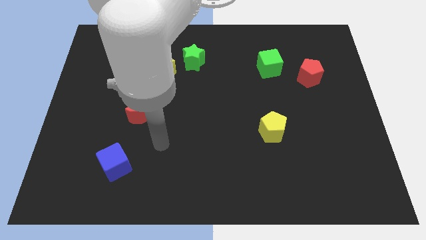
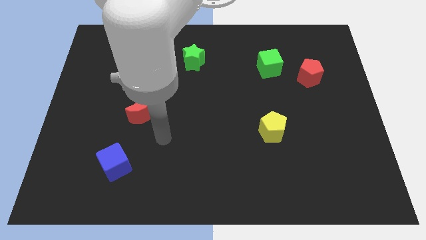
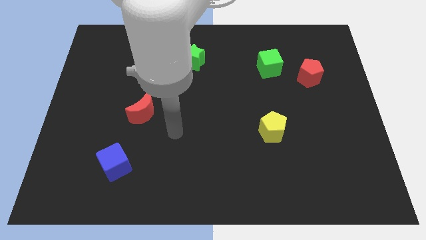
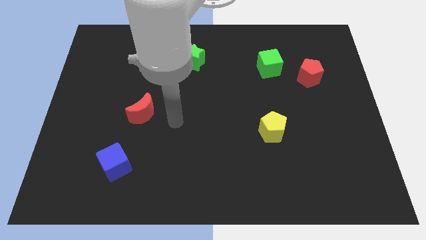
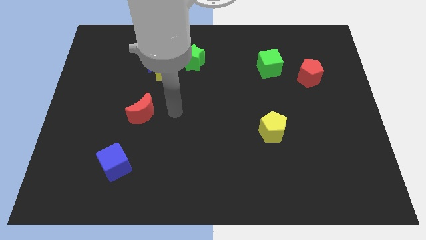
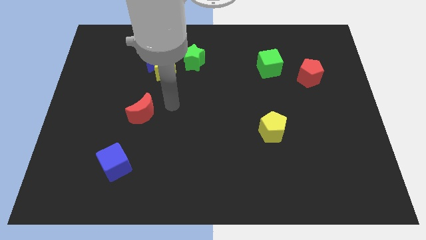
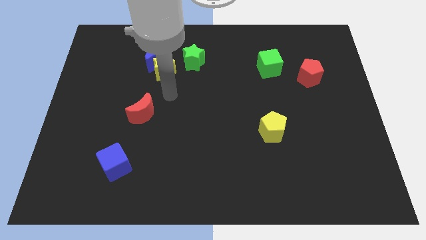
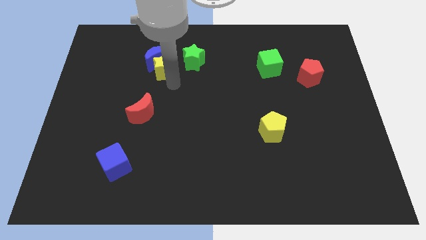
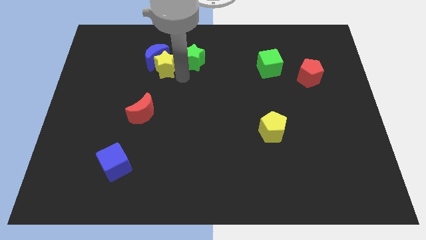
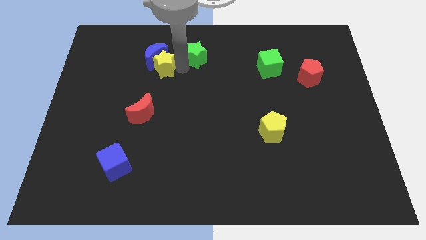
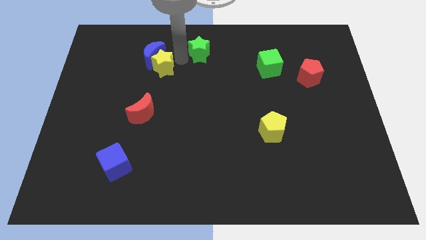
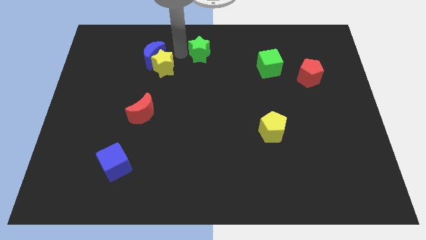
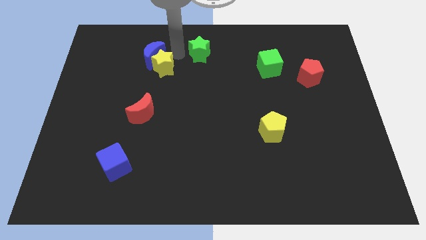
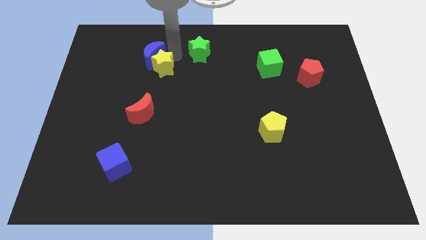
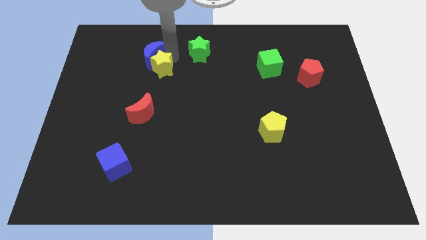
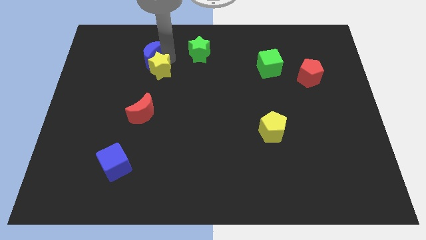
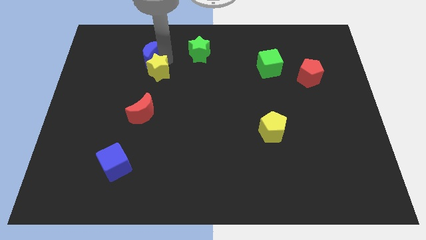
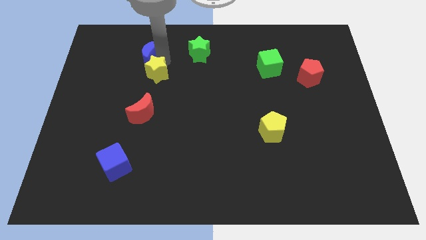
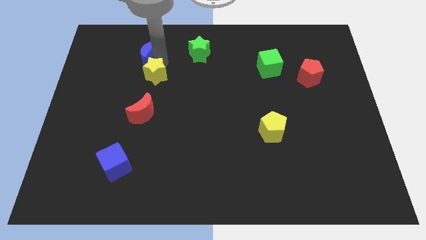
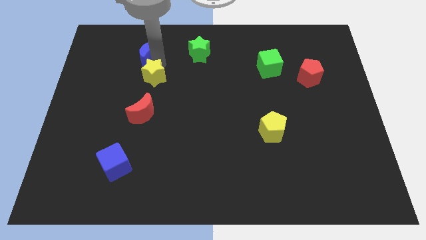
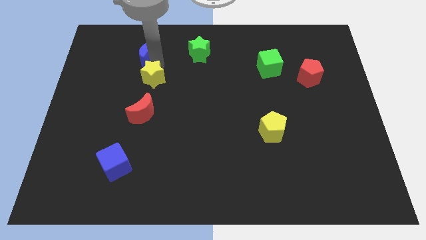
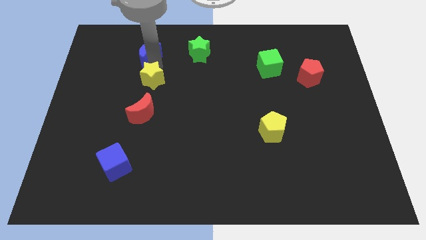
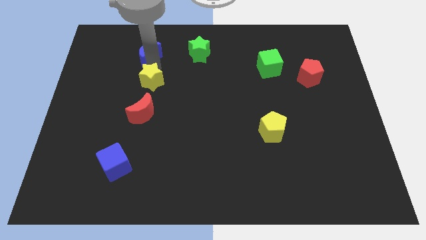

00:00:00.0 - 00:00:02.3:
separate the yellow star from the blue moon and green star

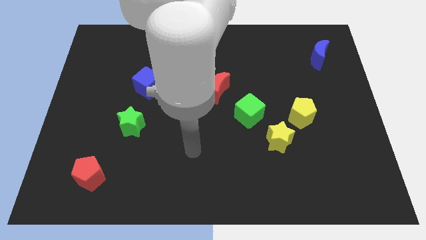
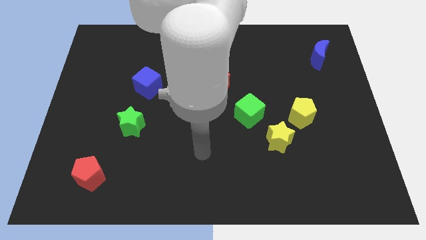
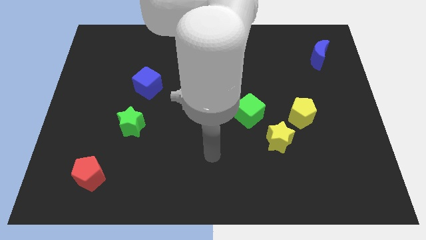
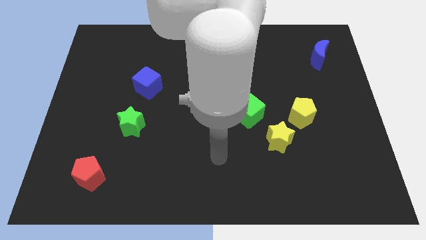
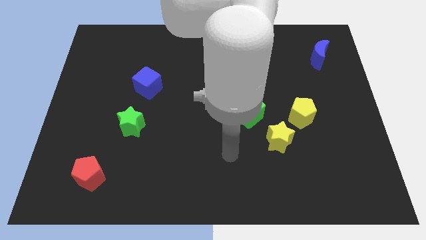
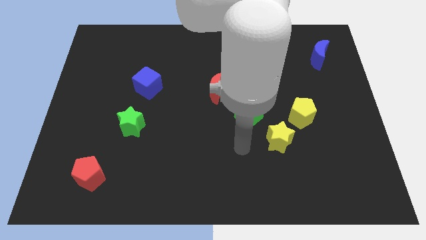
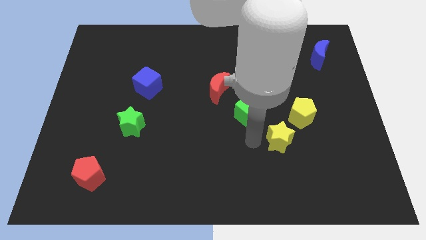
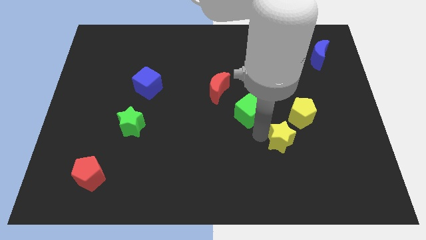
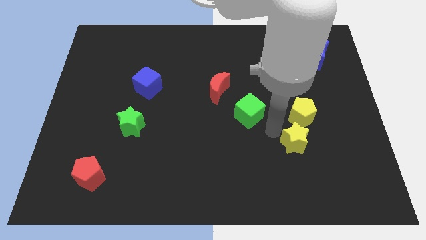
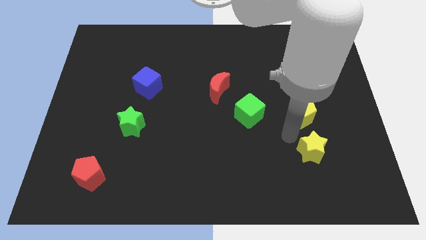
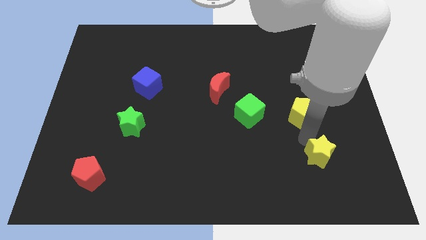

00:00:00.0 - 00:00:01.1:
move the yellow pentagon away from the yellow star

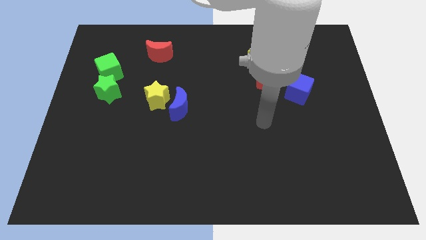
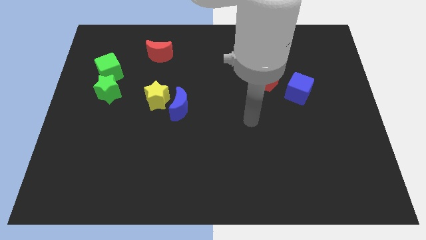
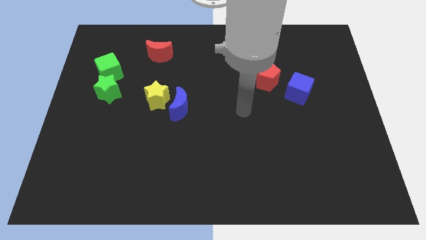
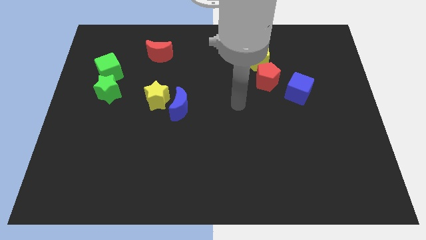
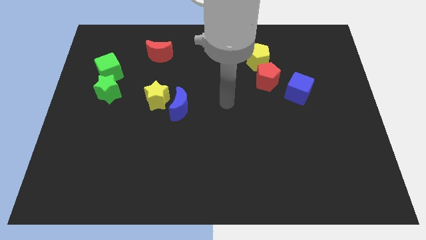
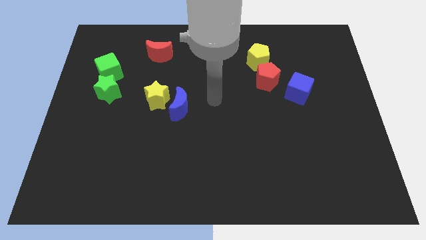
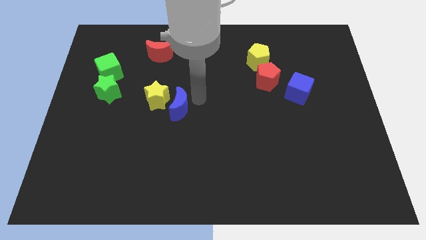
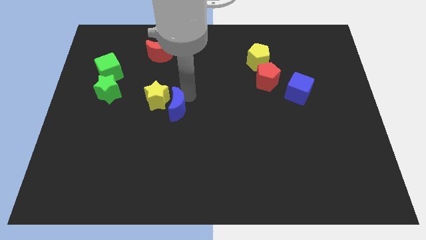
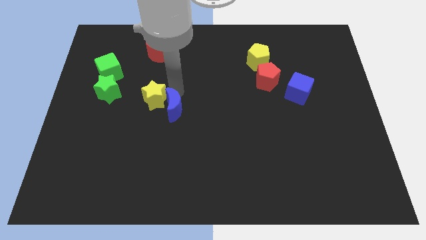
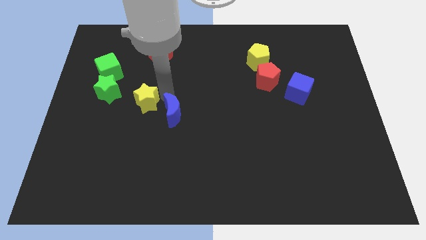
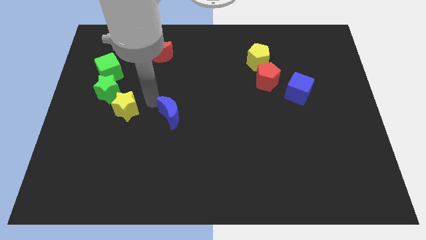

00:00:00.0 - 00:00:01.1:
move the blue moon away from the yellow star

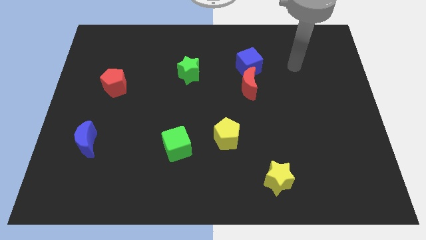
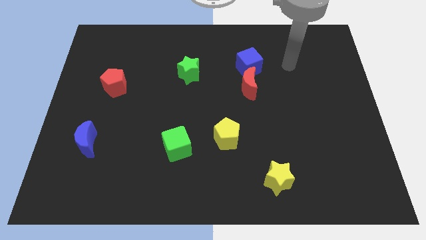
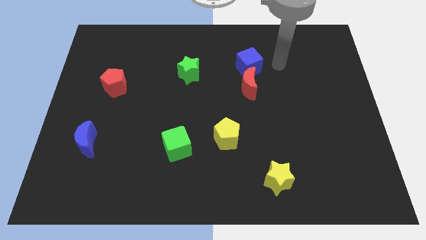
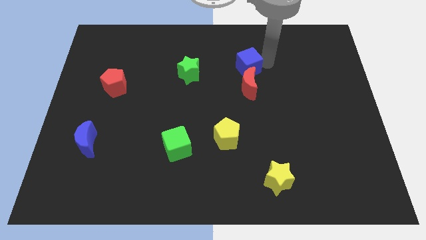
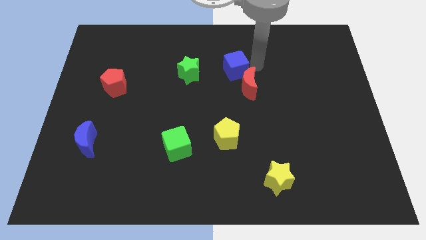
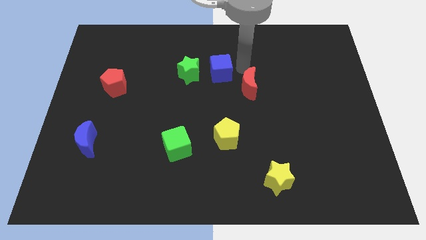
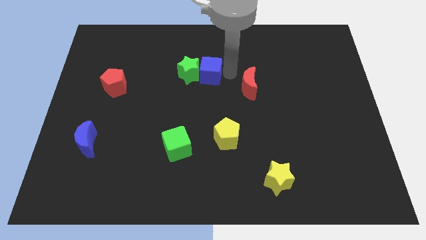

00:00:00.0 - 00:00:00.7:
separate the red moon from the blue cube

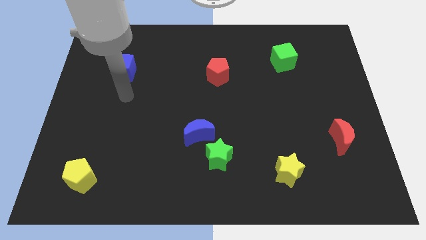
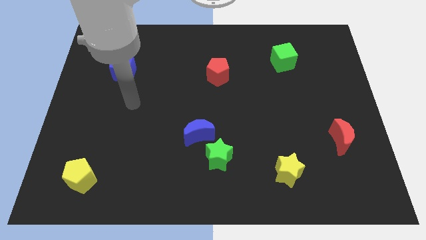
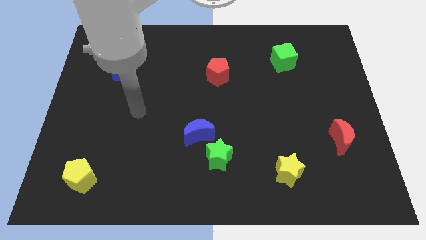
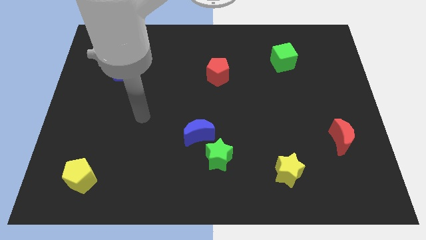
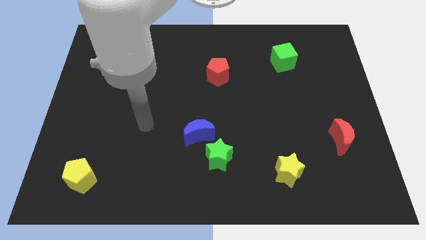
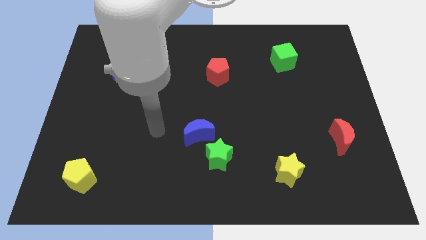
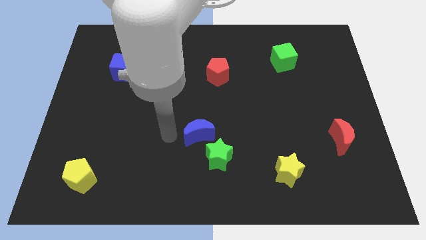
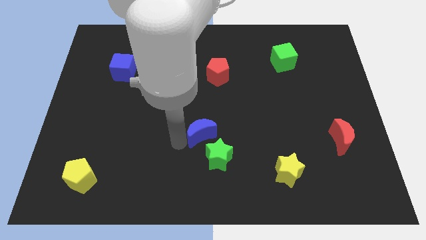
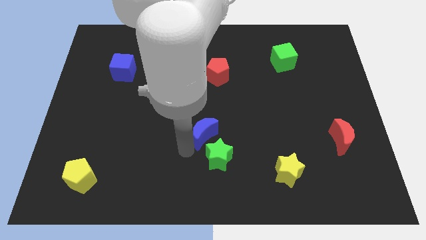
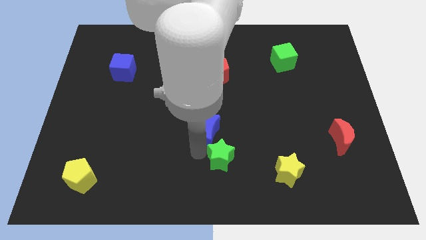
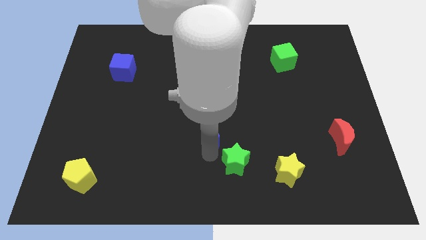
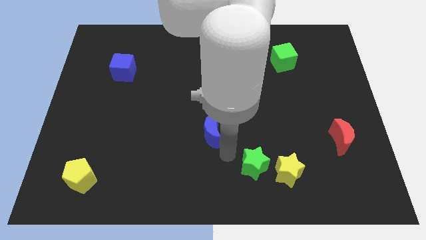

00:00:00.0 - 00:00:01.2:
move the blue moon away from the green star

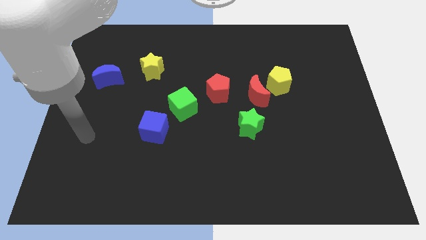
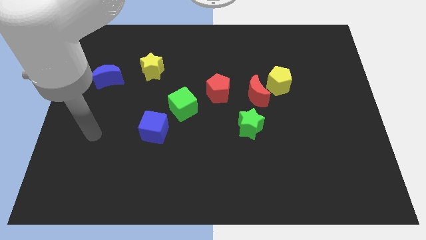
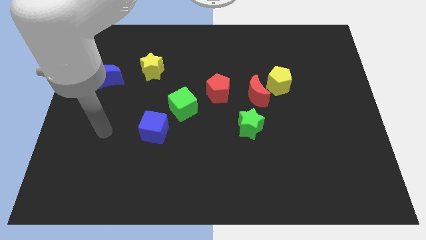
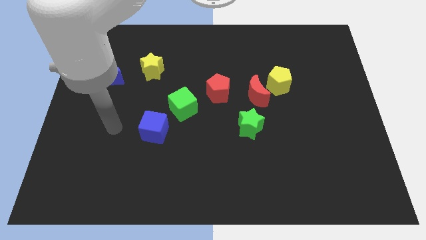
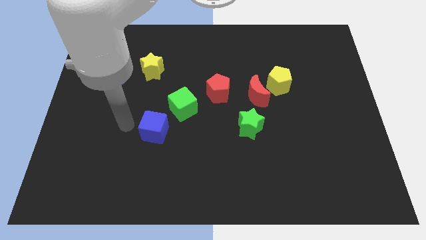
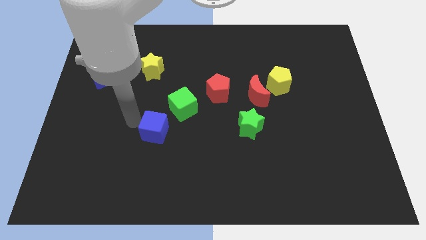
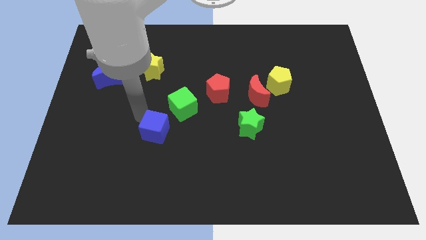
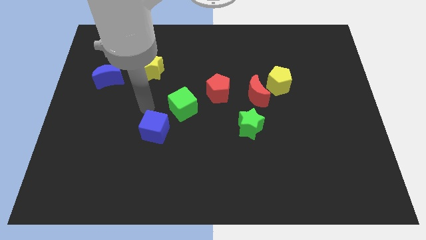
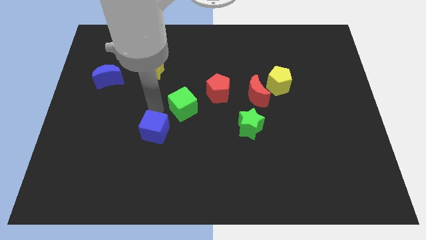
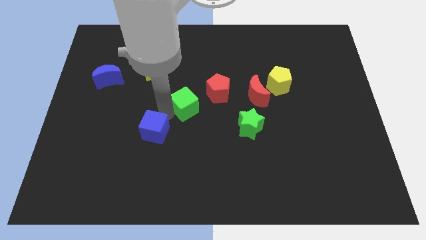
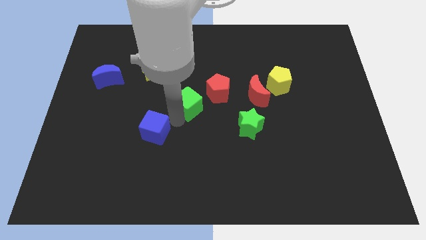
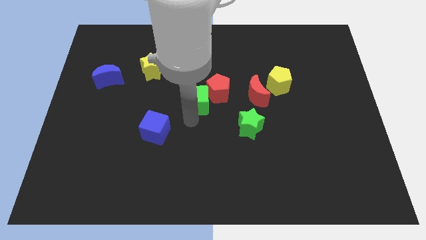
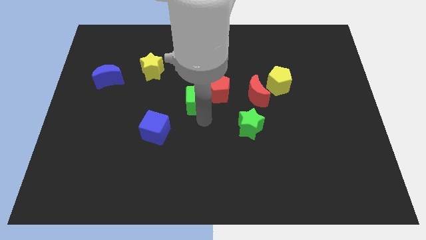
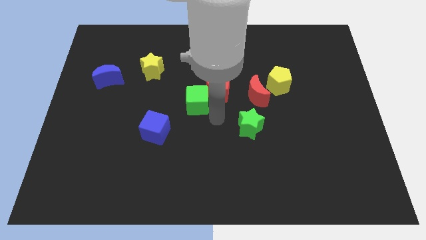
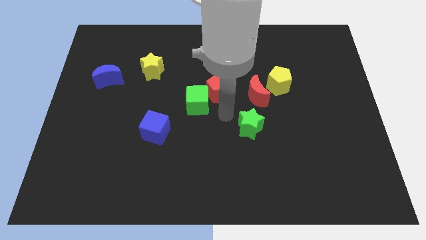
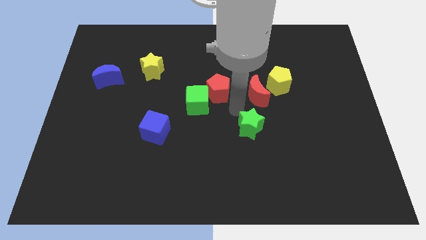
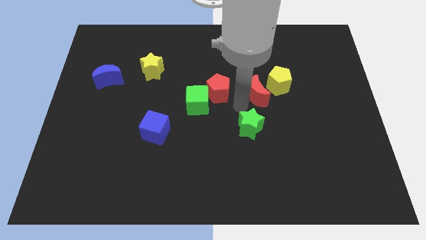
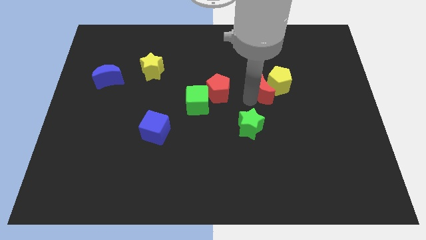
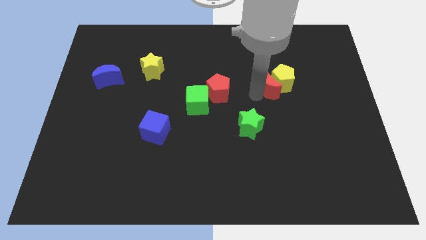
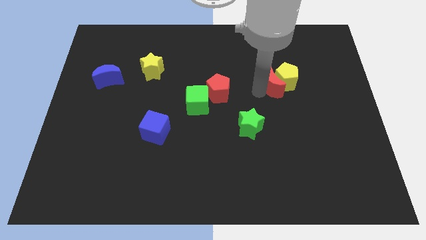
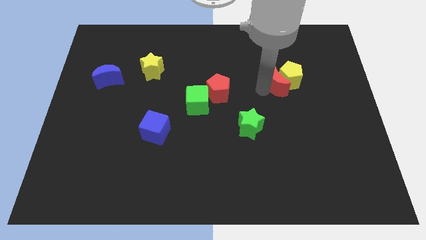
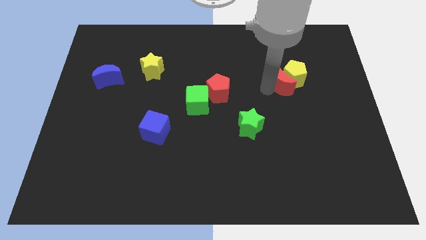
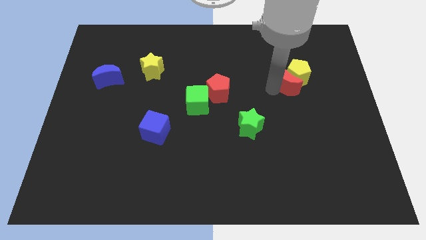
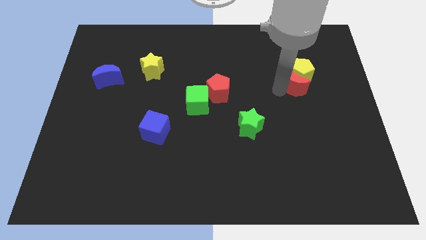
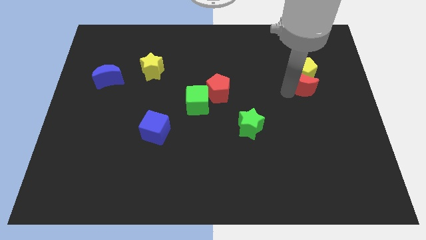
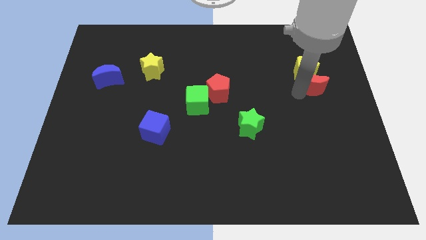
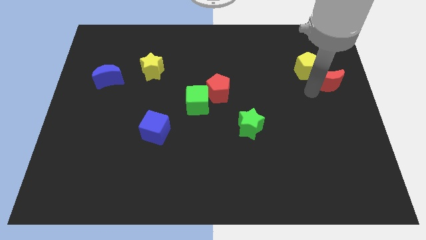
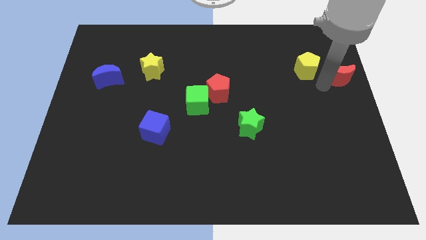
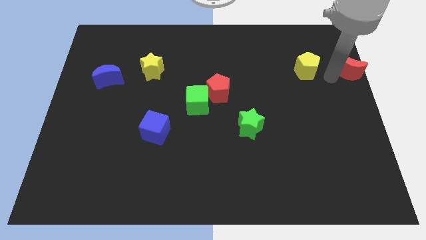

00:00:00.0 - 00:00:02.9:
separate the yellow pentagon from the red moon
